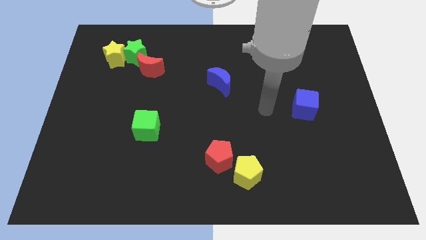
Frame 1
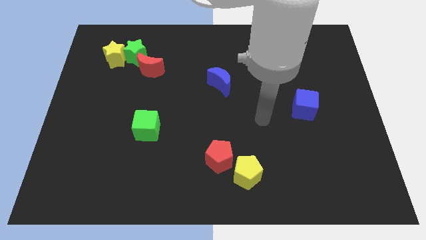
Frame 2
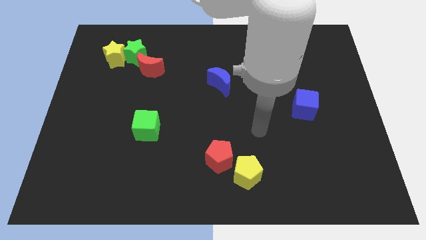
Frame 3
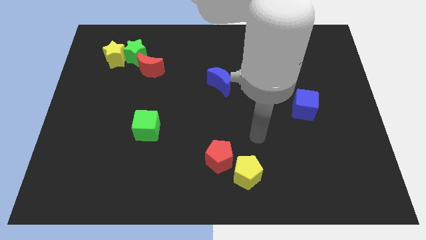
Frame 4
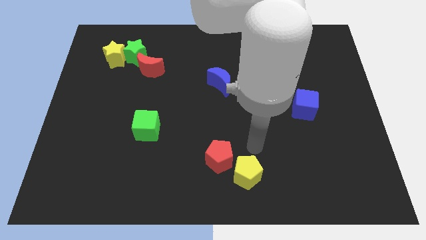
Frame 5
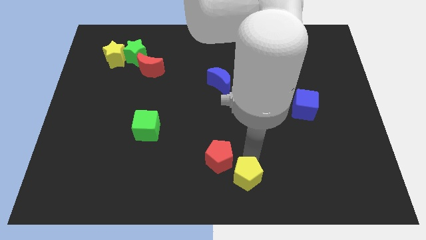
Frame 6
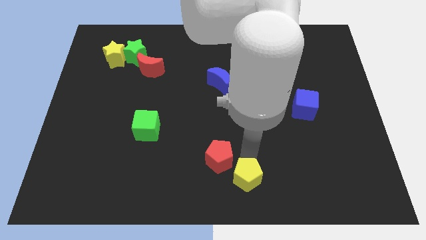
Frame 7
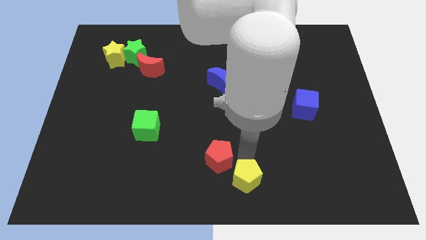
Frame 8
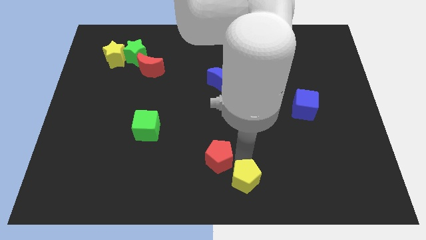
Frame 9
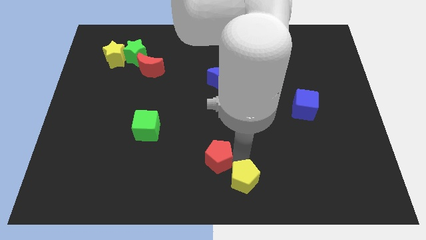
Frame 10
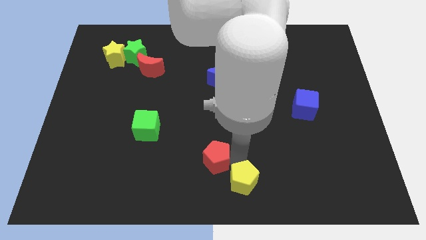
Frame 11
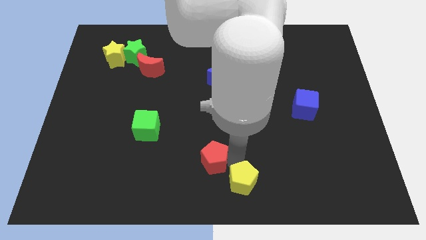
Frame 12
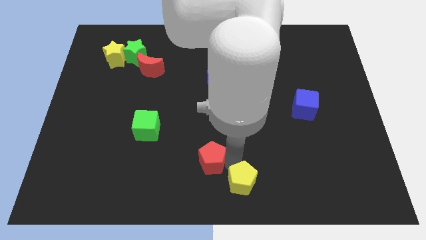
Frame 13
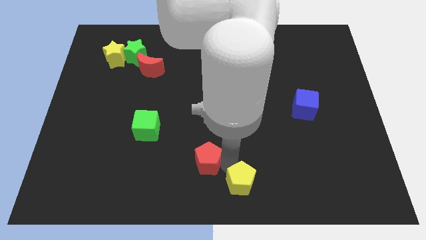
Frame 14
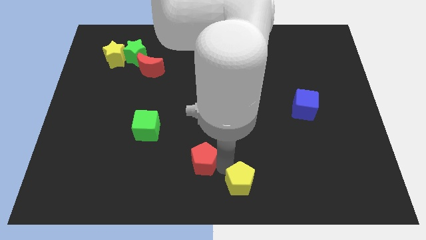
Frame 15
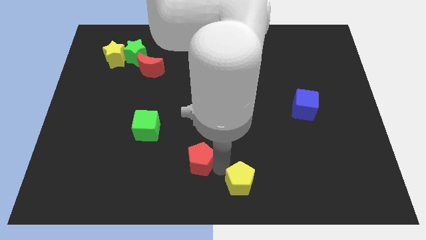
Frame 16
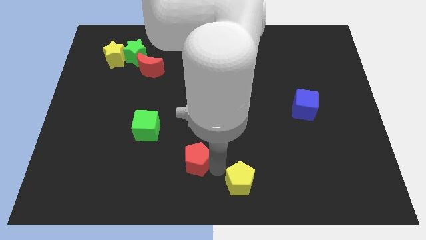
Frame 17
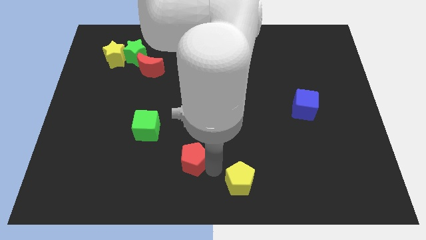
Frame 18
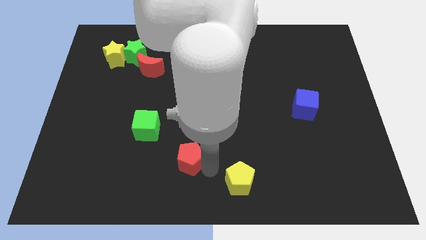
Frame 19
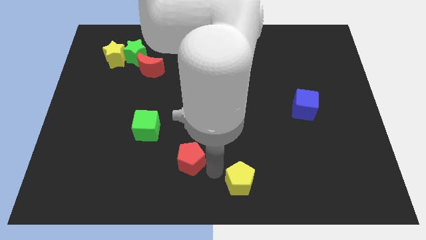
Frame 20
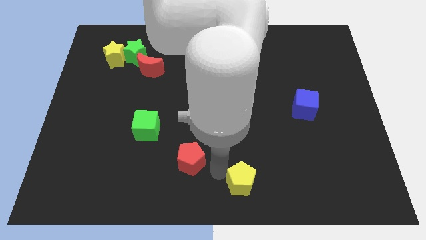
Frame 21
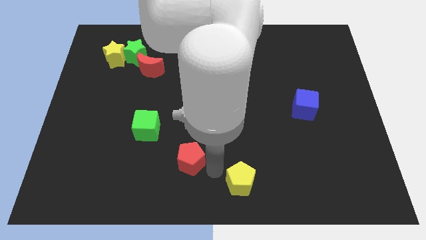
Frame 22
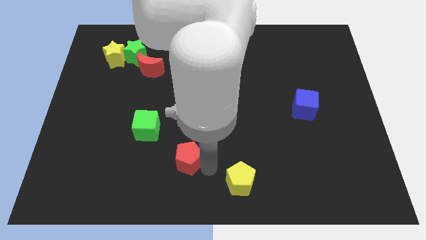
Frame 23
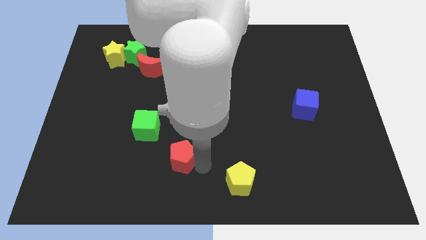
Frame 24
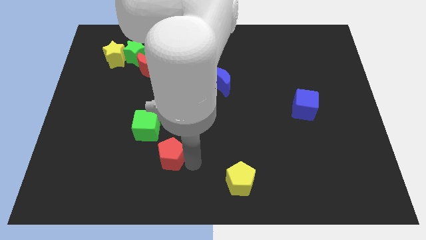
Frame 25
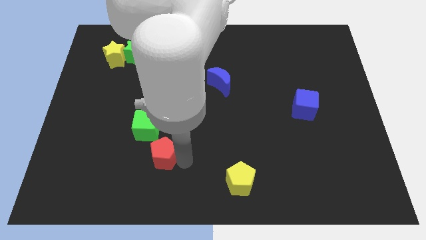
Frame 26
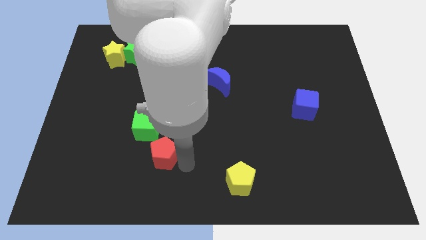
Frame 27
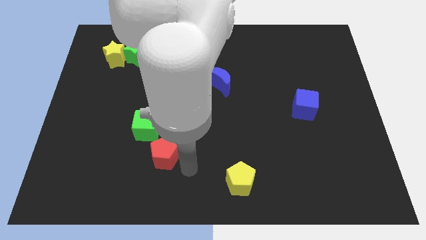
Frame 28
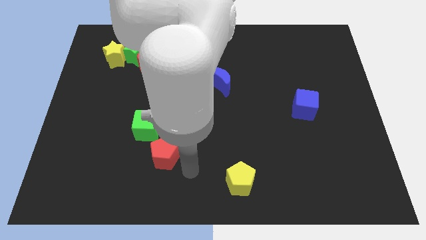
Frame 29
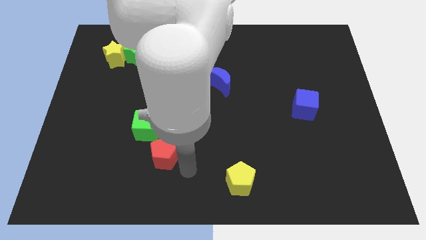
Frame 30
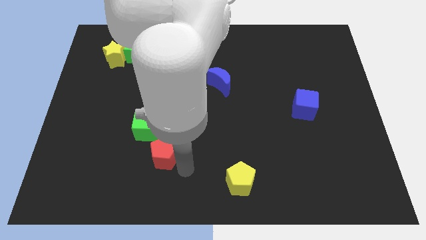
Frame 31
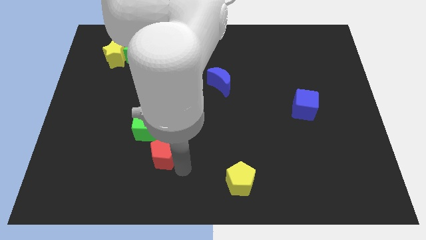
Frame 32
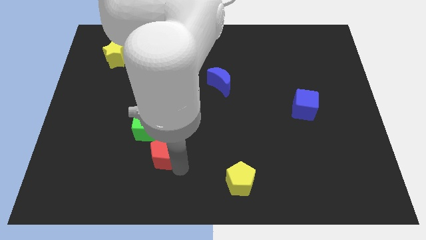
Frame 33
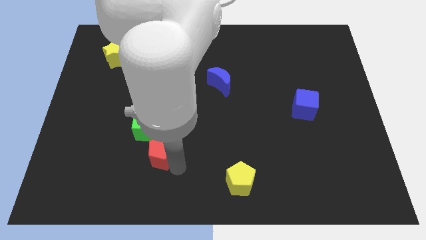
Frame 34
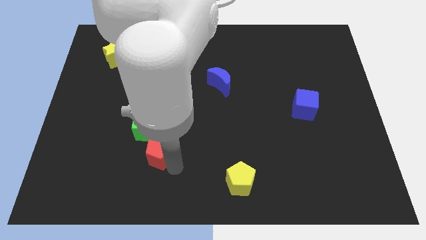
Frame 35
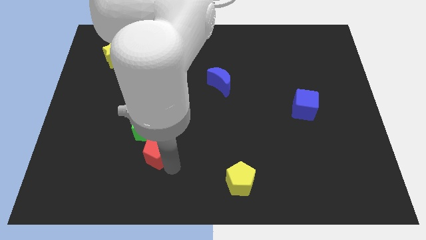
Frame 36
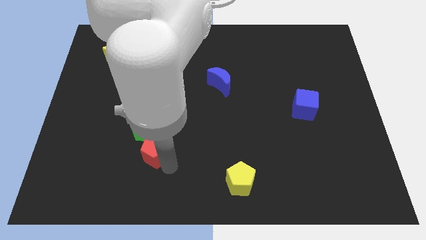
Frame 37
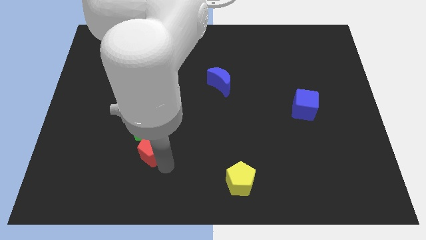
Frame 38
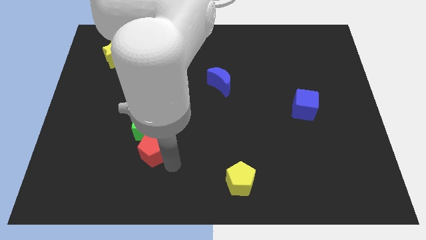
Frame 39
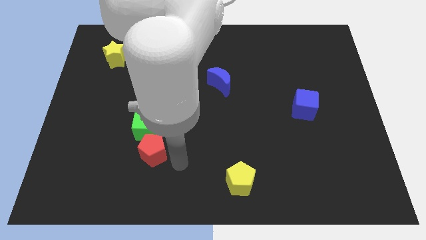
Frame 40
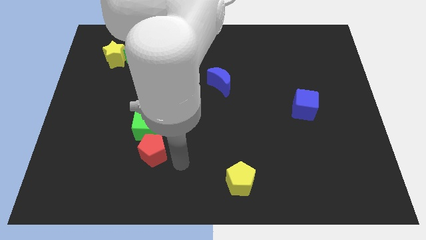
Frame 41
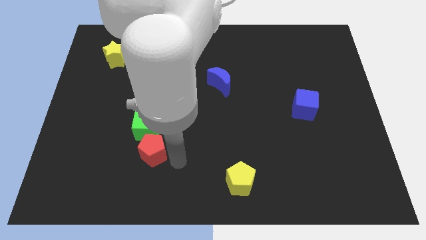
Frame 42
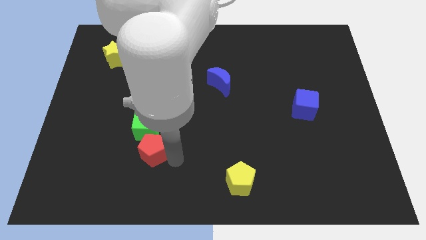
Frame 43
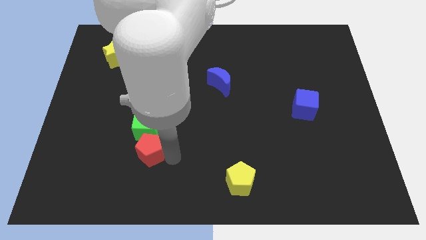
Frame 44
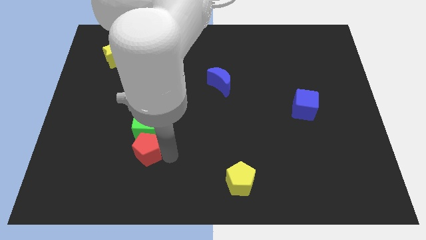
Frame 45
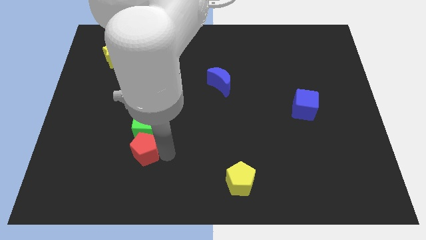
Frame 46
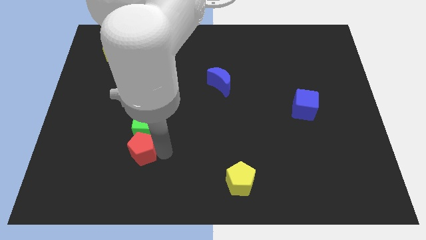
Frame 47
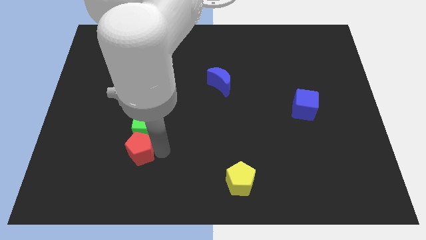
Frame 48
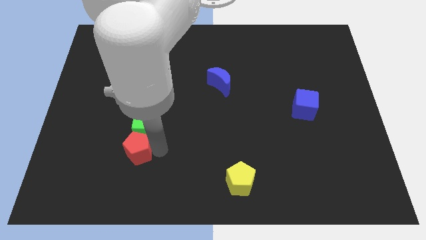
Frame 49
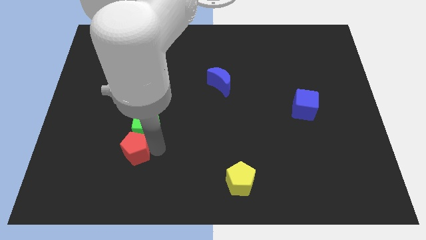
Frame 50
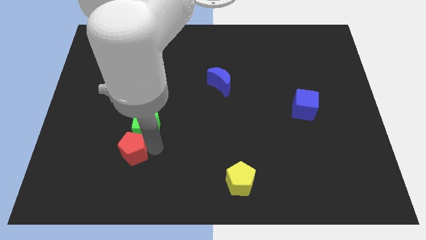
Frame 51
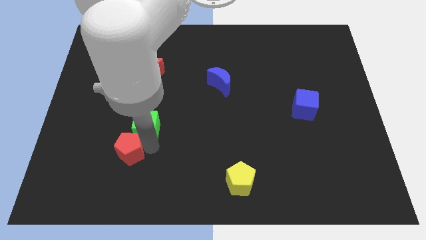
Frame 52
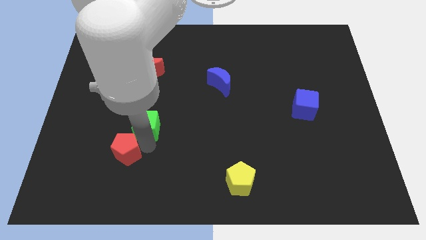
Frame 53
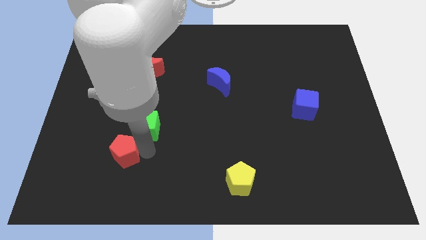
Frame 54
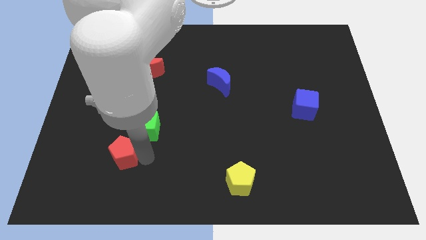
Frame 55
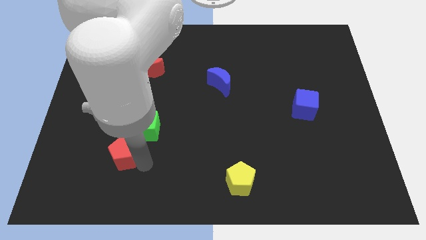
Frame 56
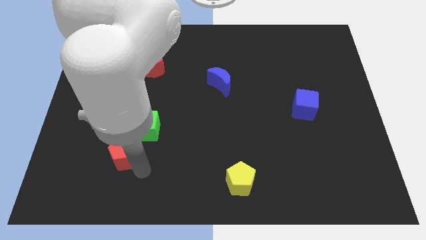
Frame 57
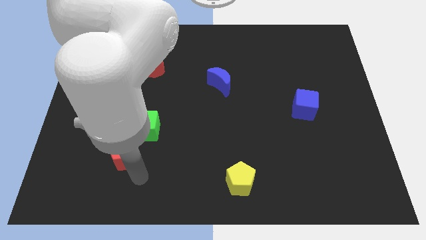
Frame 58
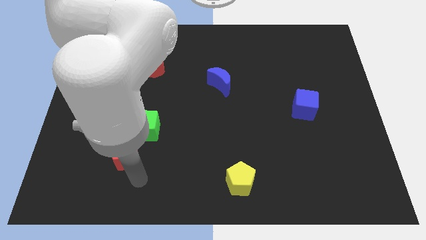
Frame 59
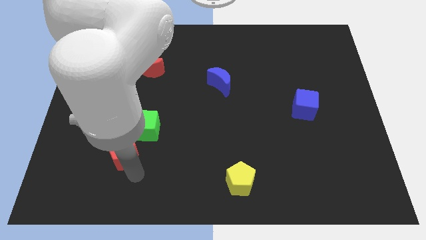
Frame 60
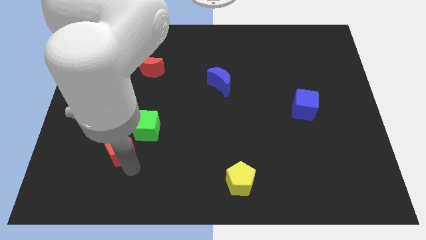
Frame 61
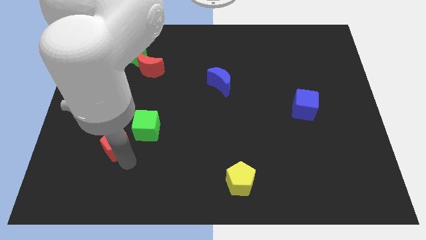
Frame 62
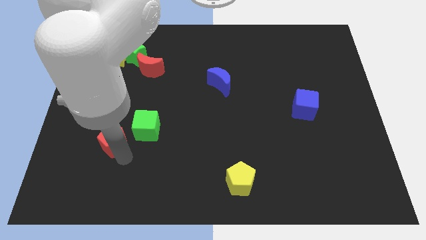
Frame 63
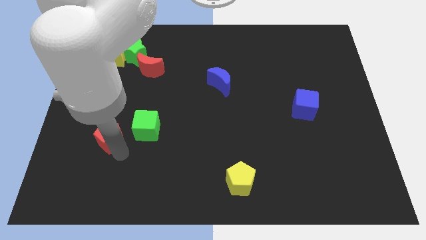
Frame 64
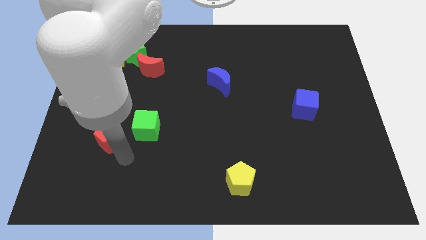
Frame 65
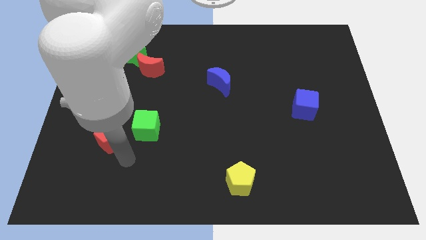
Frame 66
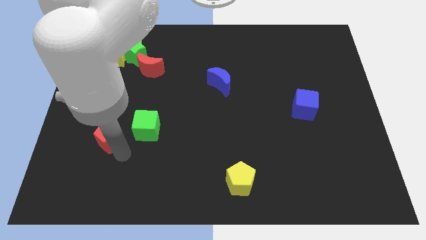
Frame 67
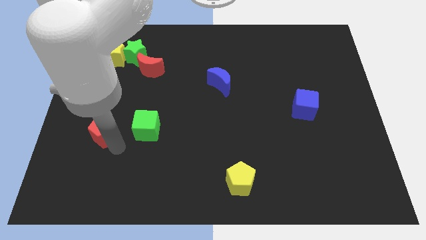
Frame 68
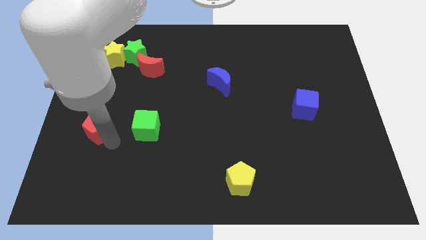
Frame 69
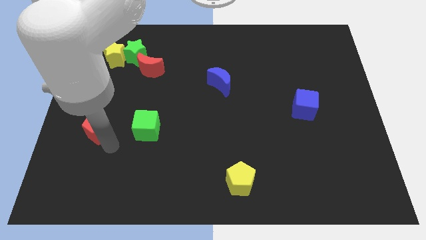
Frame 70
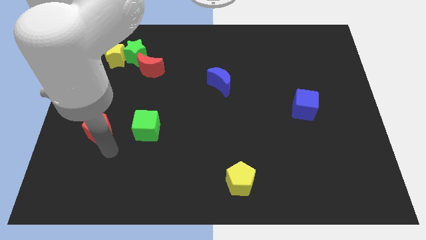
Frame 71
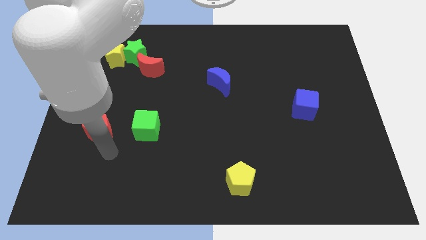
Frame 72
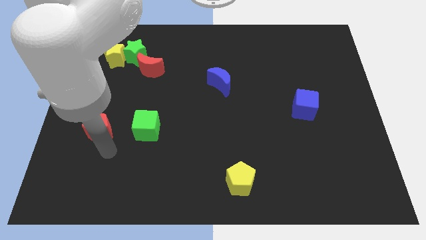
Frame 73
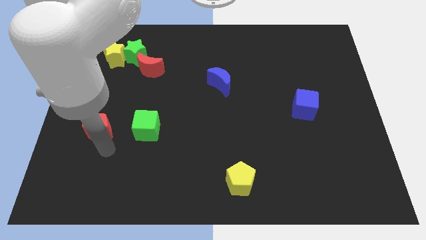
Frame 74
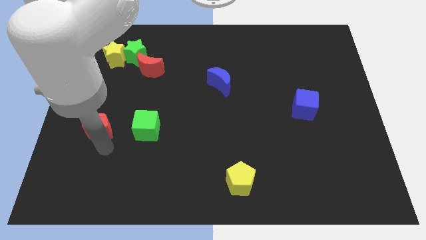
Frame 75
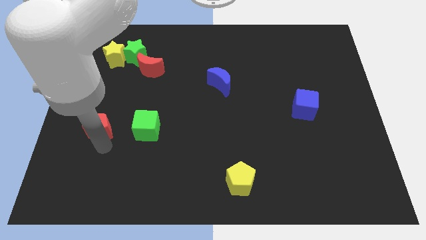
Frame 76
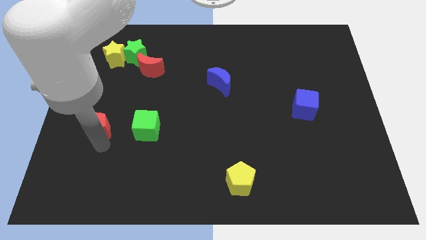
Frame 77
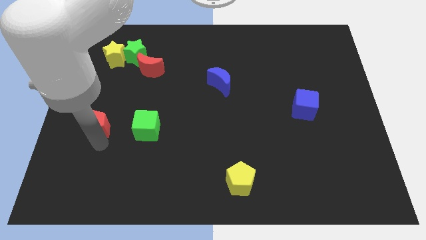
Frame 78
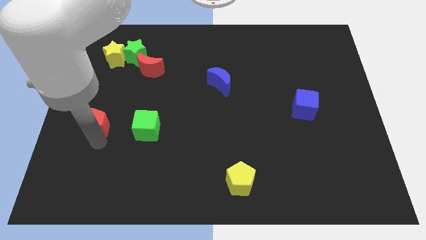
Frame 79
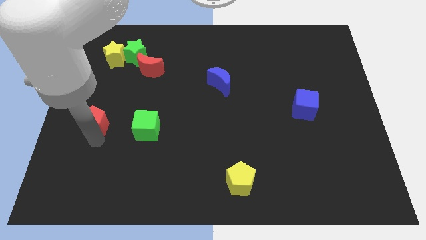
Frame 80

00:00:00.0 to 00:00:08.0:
put the red pentagon to the center left
